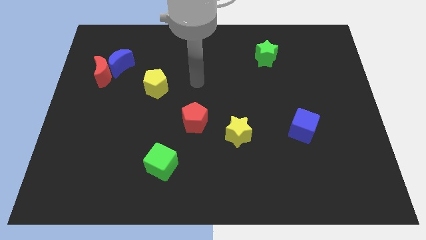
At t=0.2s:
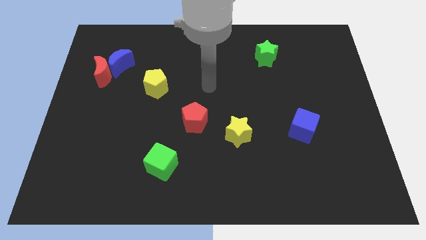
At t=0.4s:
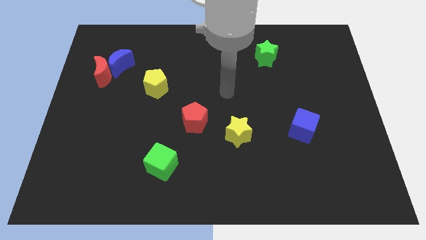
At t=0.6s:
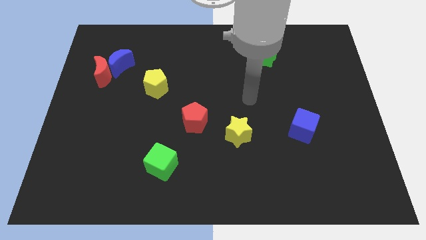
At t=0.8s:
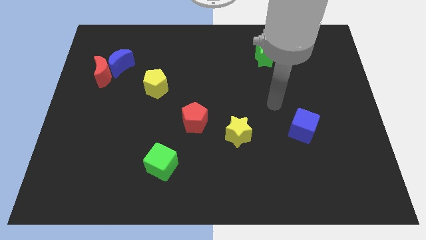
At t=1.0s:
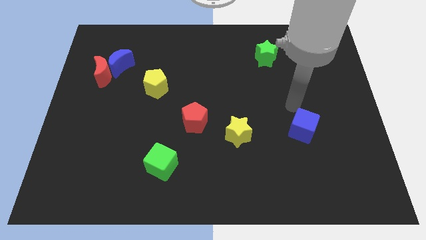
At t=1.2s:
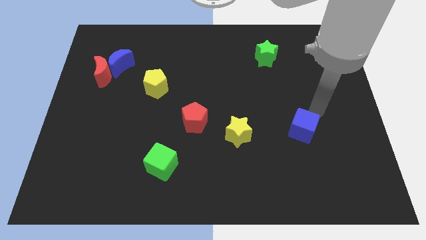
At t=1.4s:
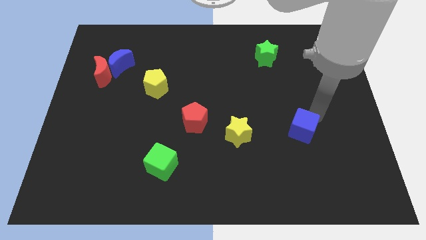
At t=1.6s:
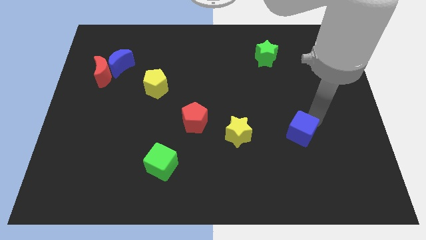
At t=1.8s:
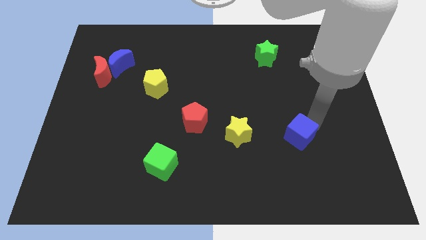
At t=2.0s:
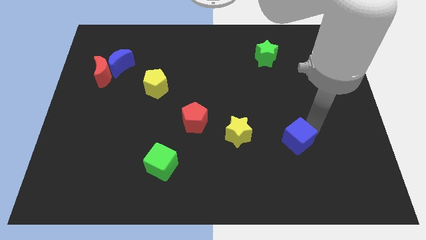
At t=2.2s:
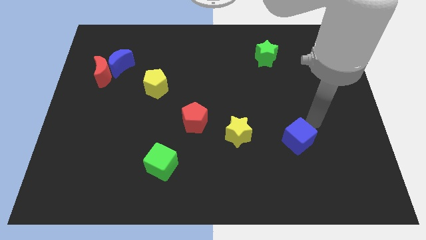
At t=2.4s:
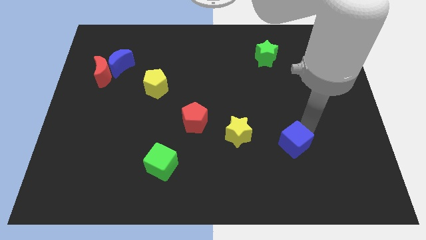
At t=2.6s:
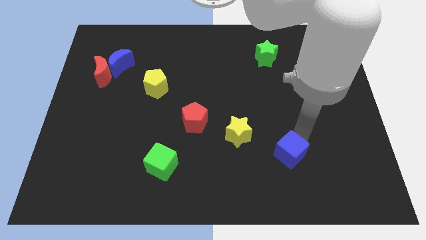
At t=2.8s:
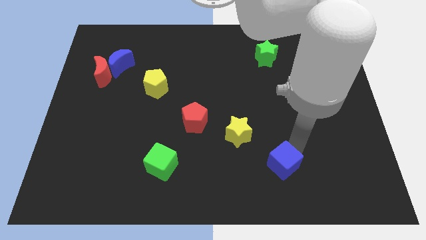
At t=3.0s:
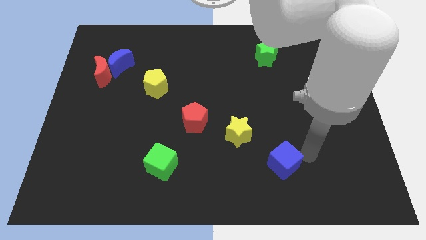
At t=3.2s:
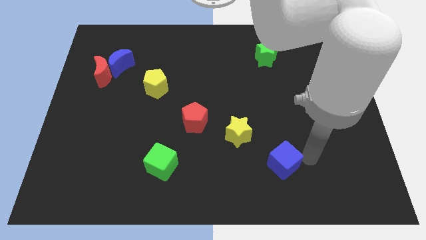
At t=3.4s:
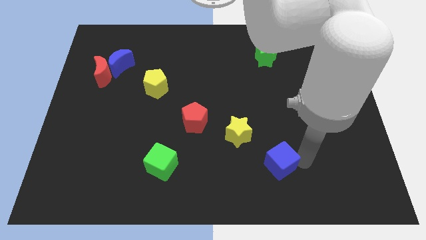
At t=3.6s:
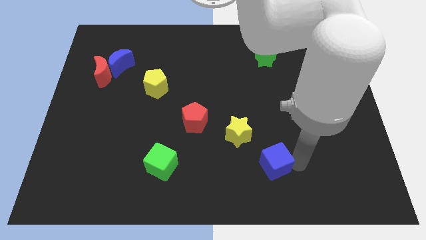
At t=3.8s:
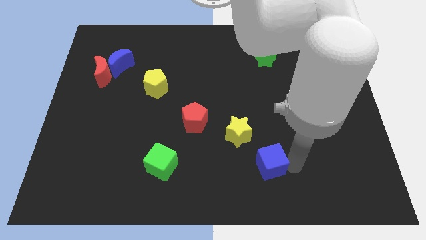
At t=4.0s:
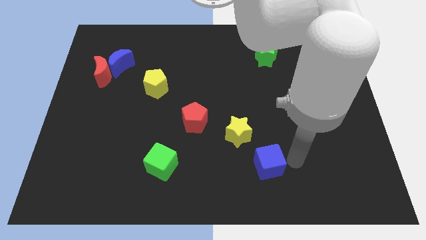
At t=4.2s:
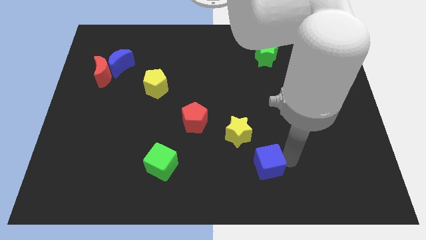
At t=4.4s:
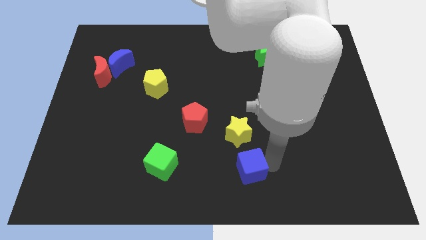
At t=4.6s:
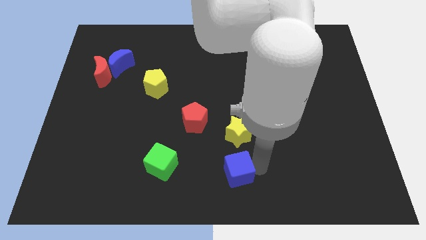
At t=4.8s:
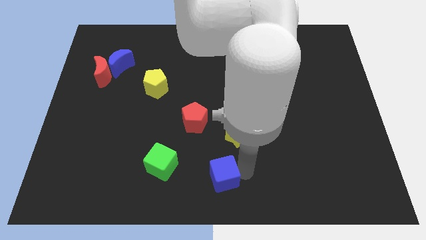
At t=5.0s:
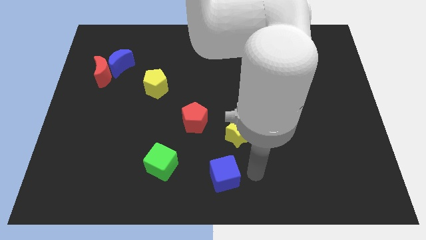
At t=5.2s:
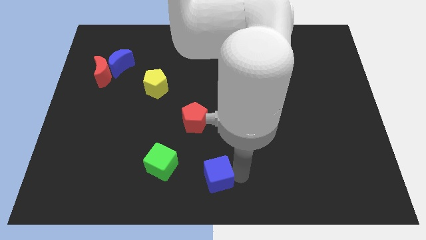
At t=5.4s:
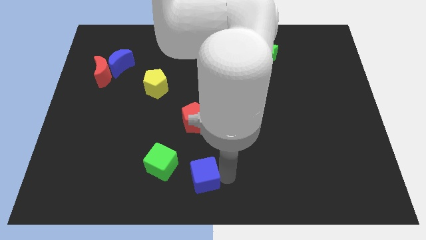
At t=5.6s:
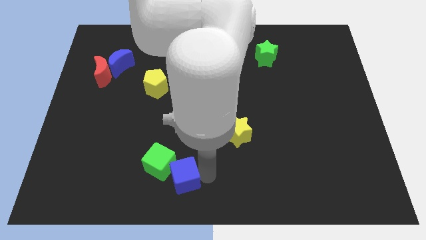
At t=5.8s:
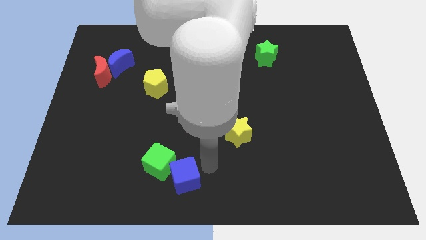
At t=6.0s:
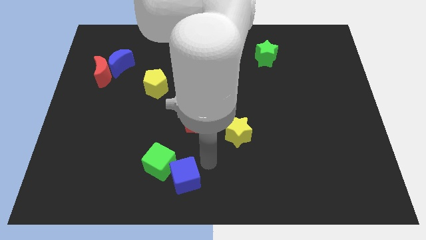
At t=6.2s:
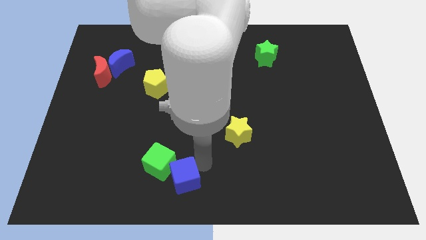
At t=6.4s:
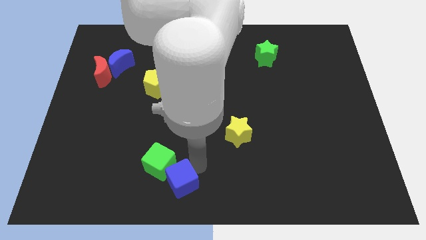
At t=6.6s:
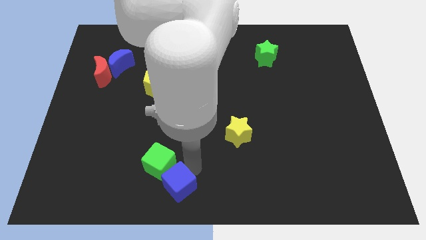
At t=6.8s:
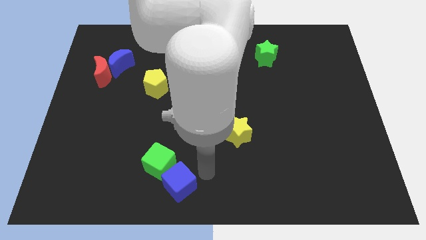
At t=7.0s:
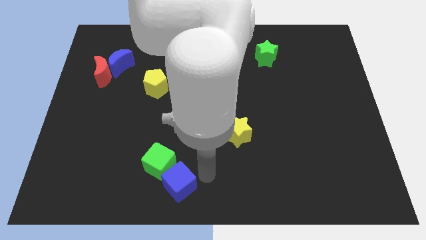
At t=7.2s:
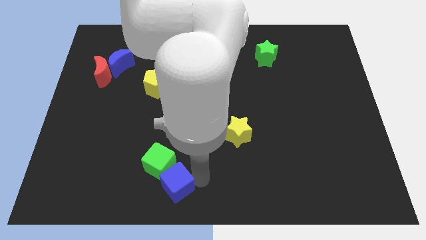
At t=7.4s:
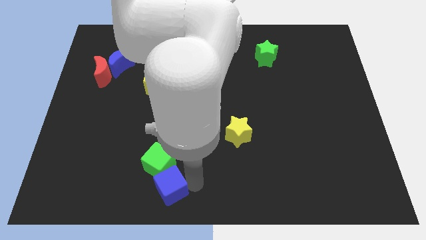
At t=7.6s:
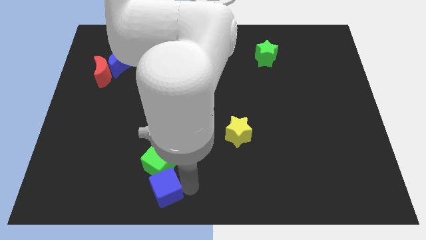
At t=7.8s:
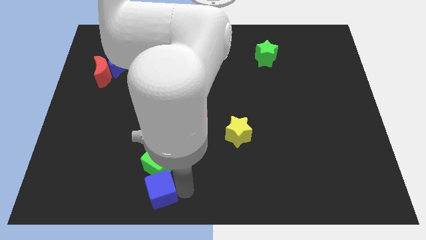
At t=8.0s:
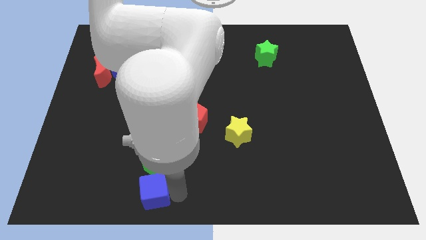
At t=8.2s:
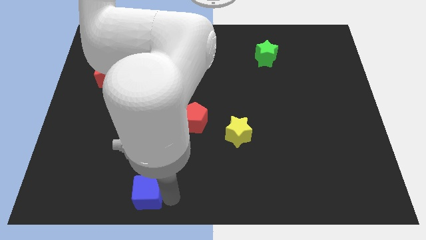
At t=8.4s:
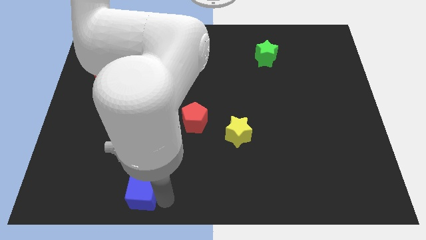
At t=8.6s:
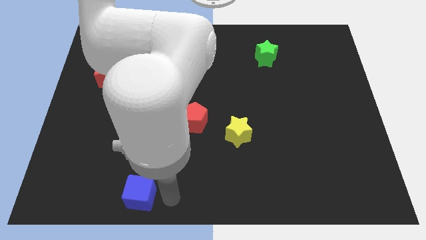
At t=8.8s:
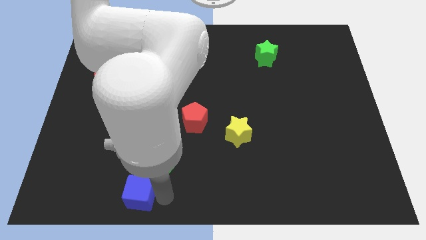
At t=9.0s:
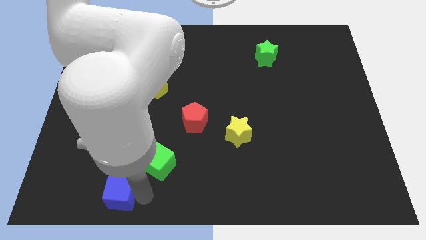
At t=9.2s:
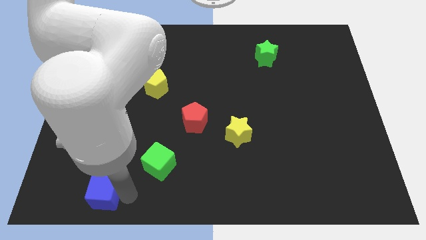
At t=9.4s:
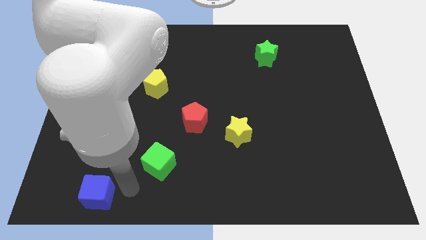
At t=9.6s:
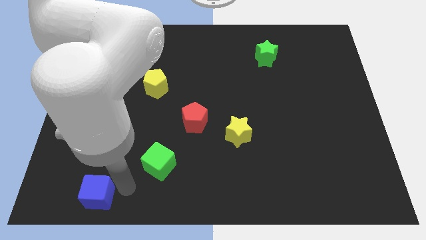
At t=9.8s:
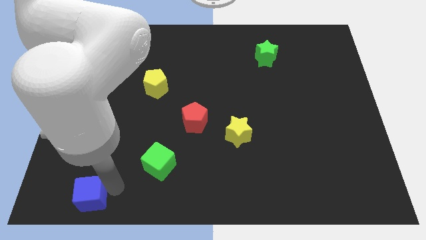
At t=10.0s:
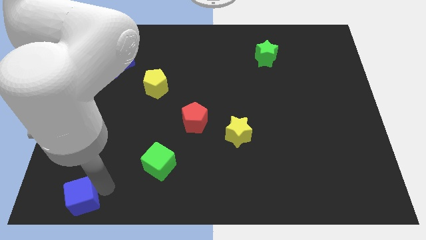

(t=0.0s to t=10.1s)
slide the blue cube to the bottom left of the board

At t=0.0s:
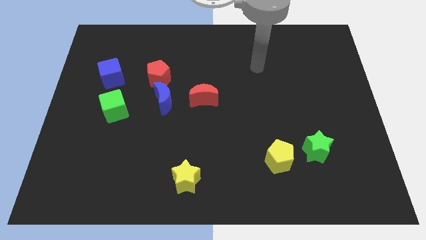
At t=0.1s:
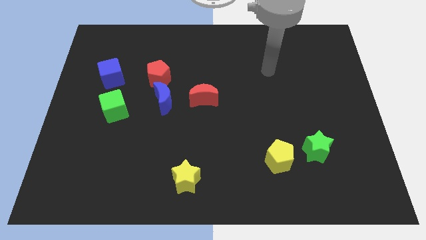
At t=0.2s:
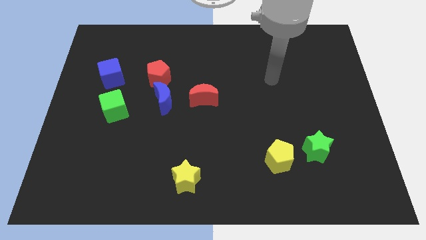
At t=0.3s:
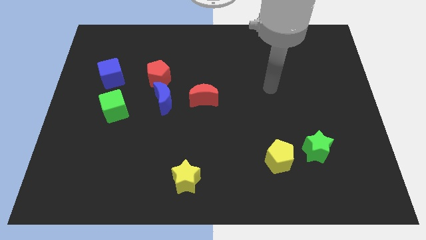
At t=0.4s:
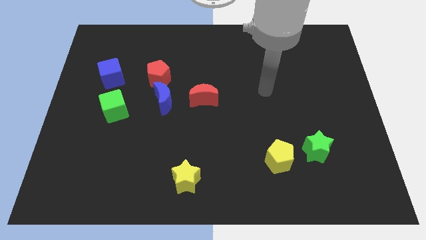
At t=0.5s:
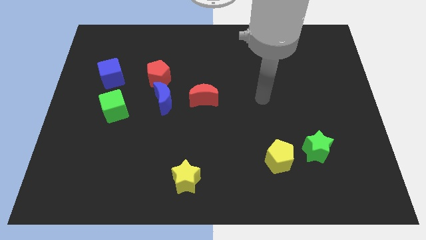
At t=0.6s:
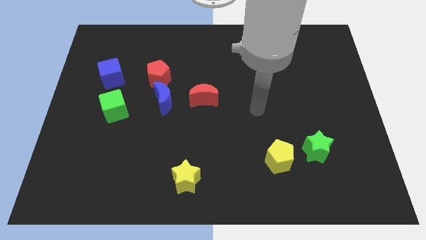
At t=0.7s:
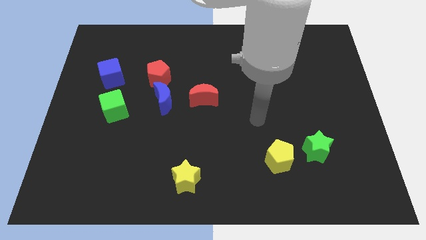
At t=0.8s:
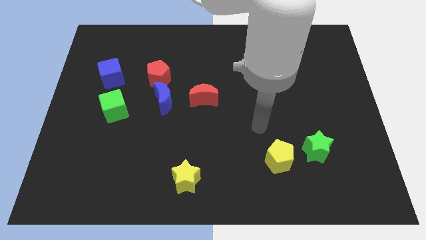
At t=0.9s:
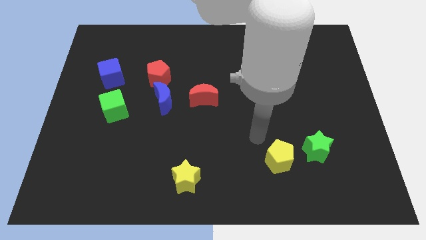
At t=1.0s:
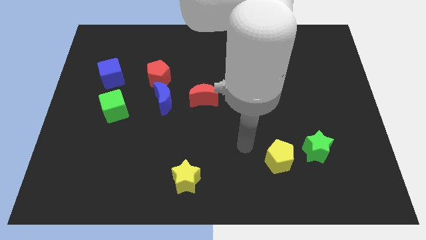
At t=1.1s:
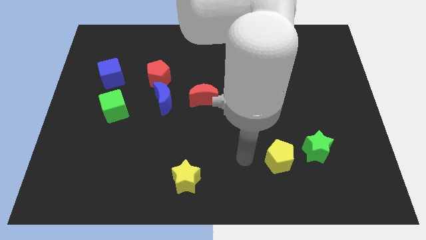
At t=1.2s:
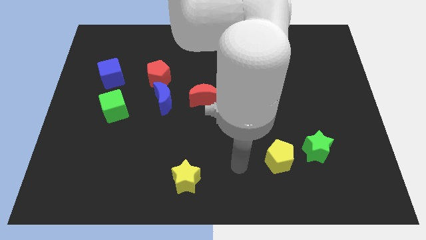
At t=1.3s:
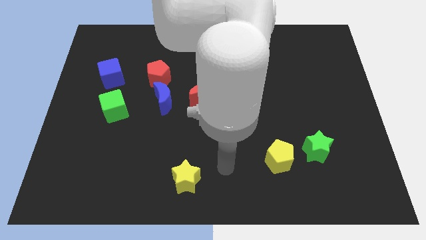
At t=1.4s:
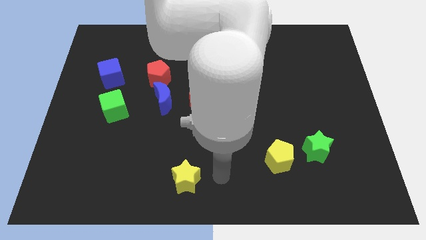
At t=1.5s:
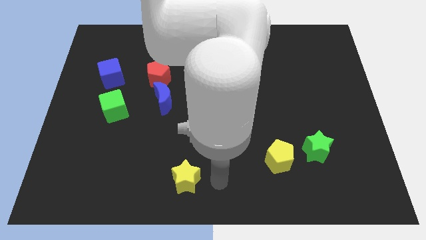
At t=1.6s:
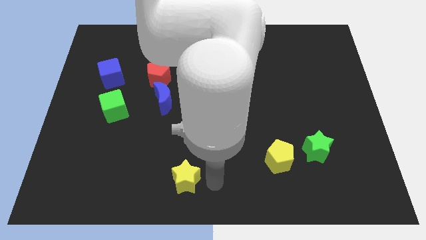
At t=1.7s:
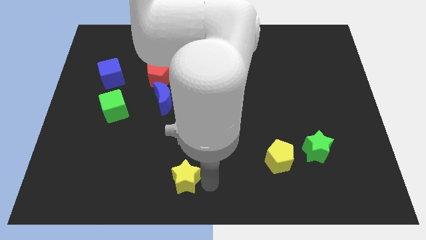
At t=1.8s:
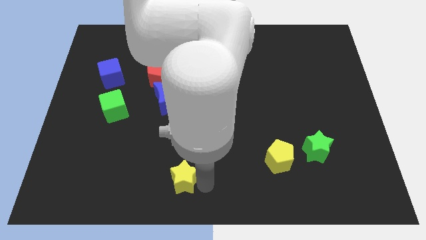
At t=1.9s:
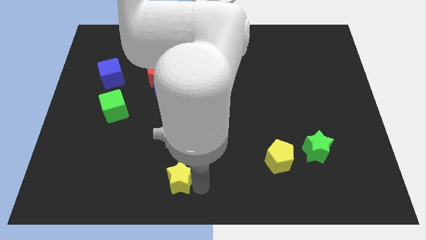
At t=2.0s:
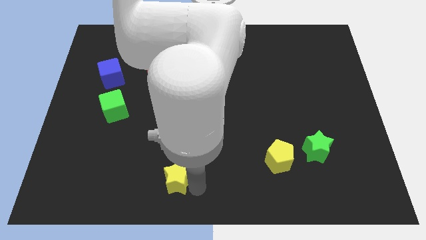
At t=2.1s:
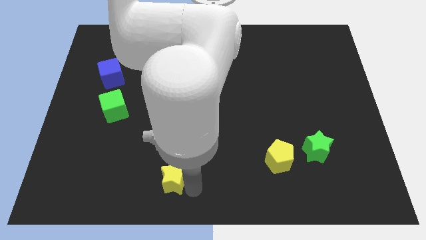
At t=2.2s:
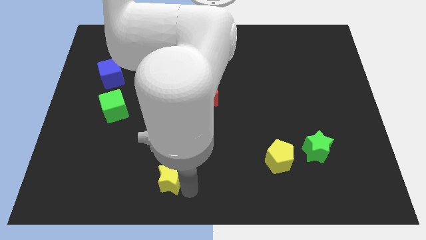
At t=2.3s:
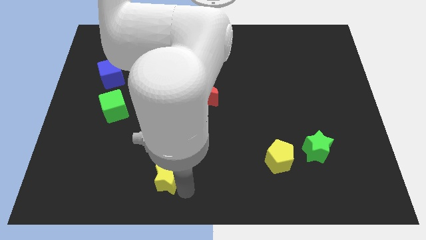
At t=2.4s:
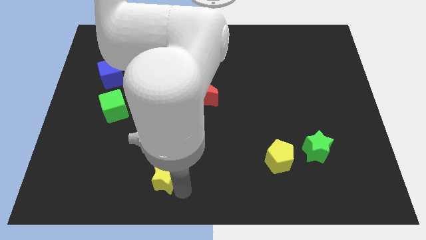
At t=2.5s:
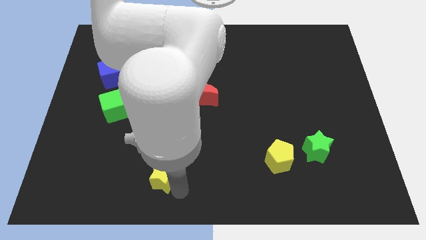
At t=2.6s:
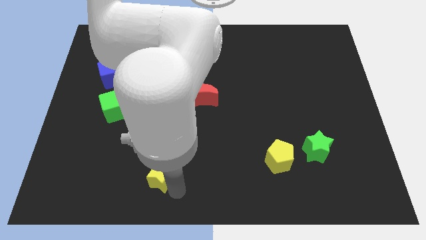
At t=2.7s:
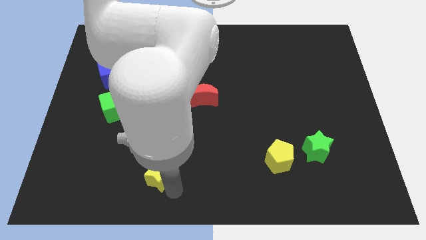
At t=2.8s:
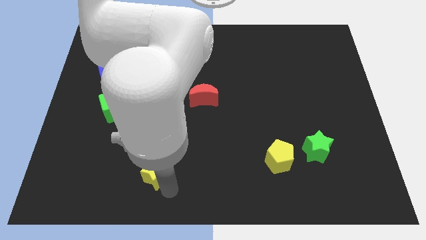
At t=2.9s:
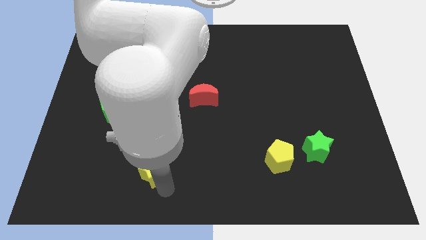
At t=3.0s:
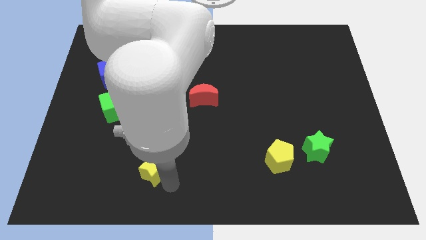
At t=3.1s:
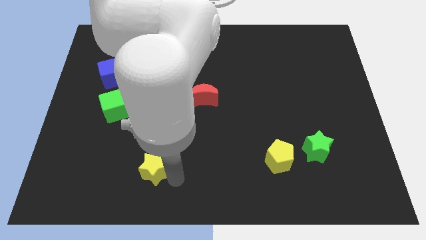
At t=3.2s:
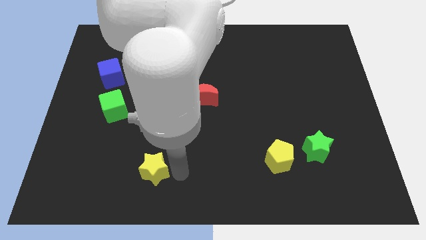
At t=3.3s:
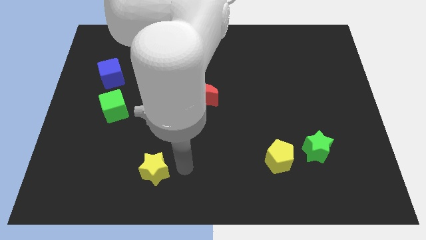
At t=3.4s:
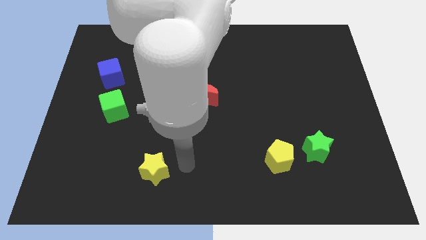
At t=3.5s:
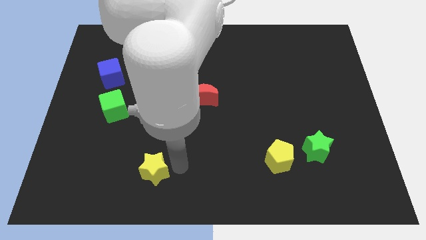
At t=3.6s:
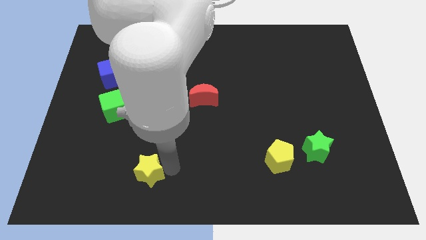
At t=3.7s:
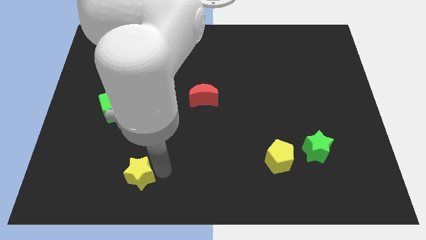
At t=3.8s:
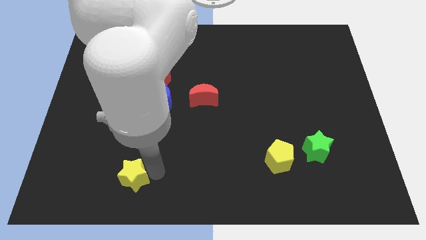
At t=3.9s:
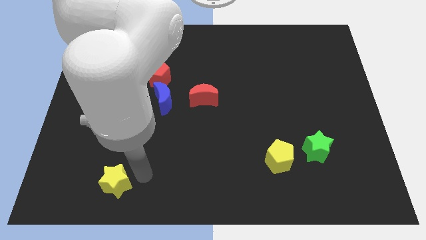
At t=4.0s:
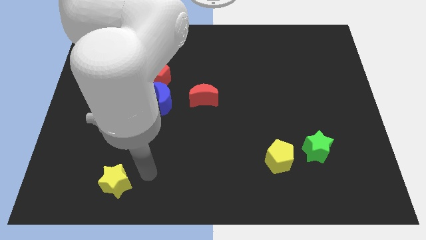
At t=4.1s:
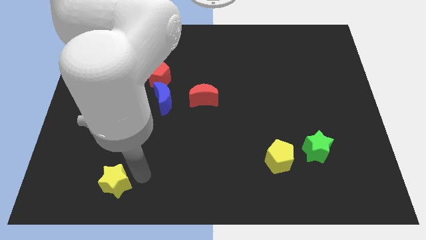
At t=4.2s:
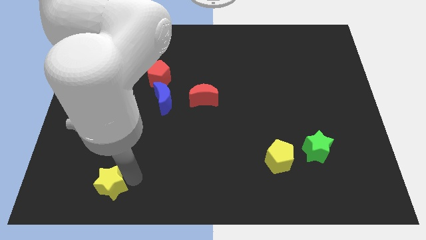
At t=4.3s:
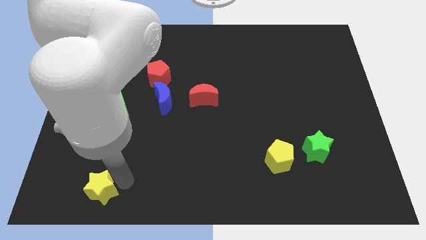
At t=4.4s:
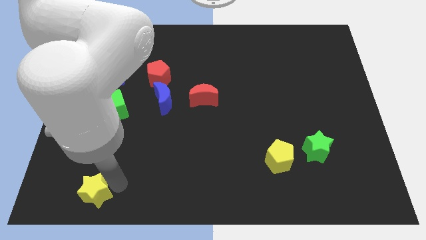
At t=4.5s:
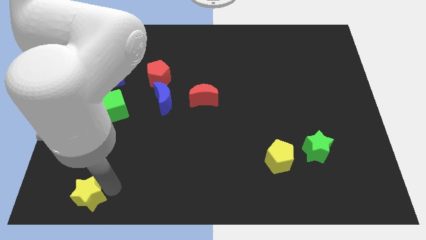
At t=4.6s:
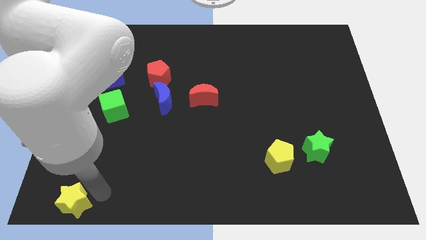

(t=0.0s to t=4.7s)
move the yellow star to the bottom left
